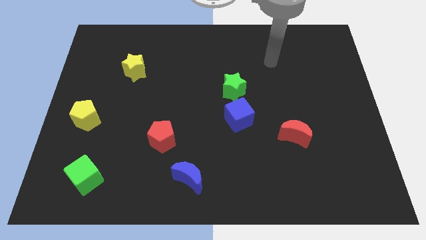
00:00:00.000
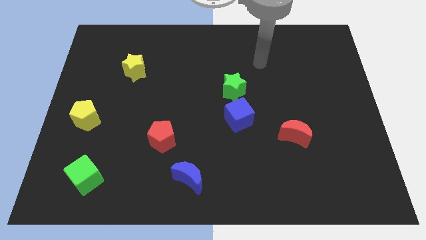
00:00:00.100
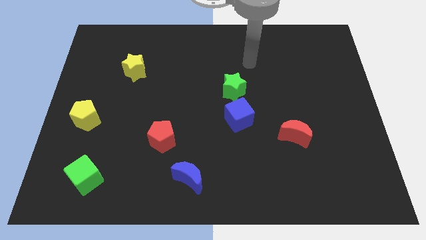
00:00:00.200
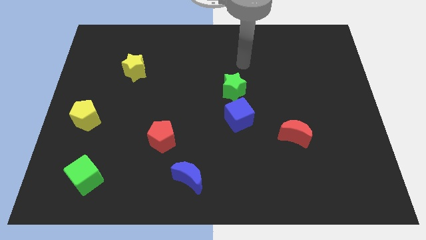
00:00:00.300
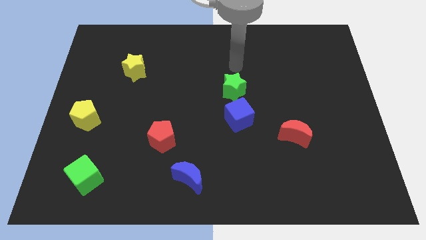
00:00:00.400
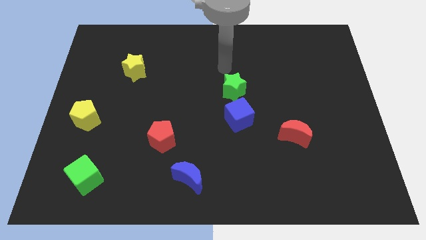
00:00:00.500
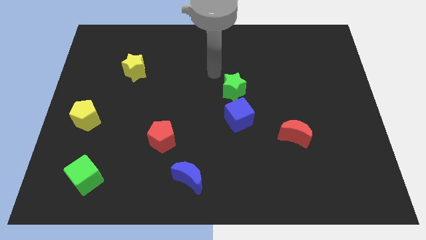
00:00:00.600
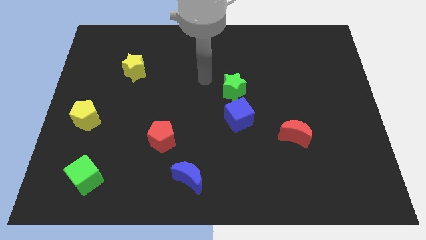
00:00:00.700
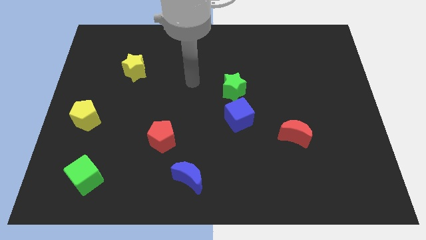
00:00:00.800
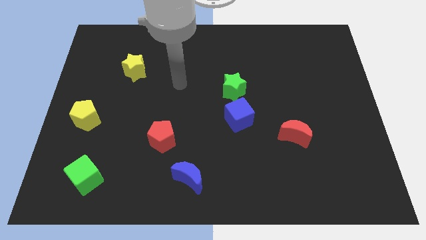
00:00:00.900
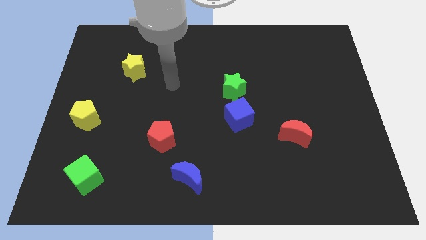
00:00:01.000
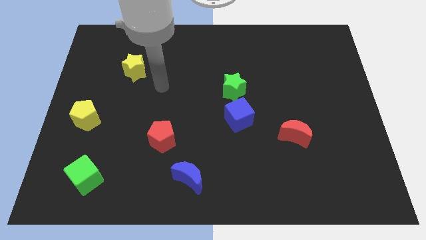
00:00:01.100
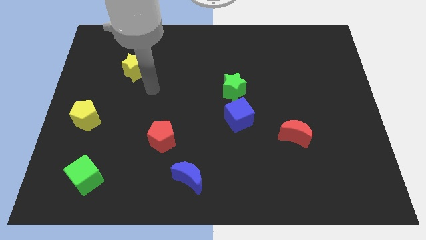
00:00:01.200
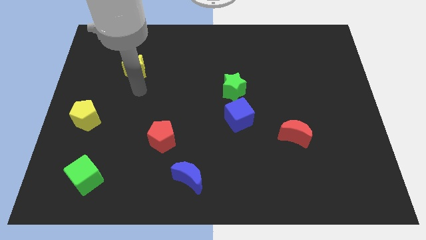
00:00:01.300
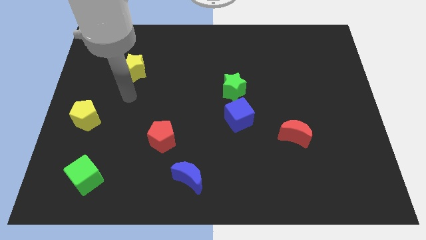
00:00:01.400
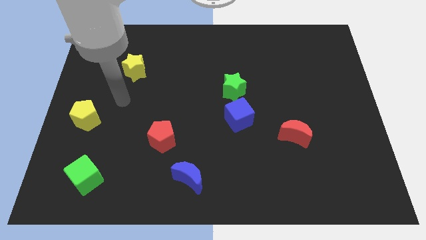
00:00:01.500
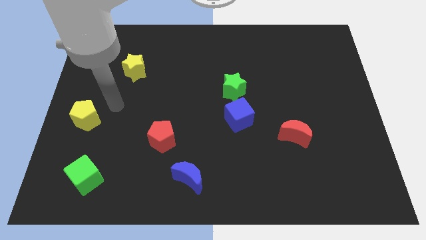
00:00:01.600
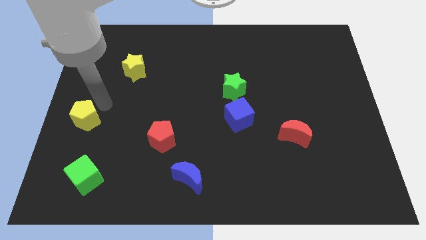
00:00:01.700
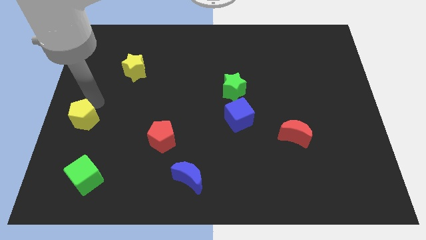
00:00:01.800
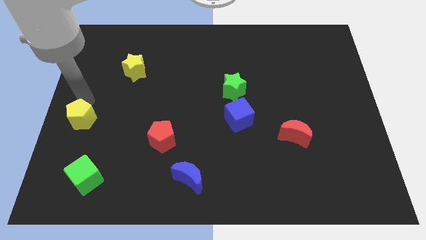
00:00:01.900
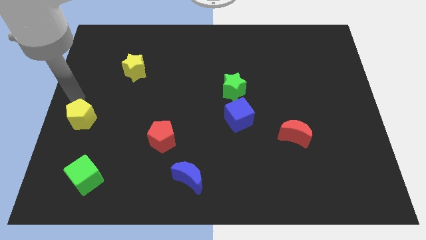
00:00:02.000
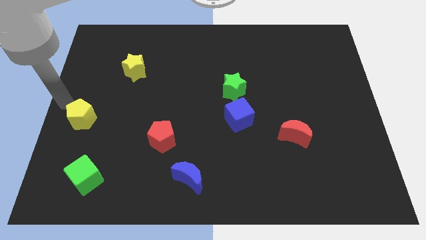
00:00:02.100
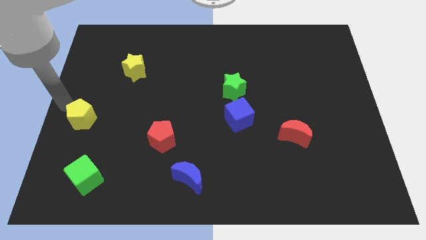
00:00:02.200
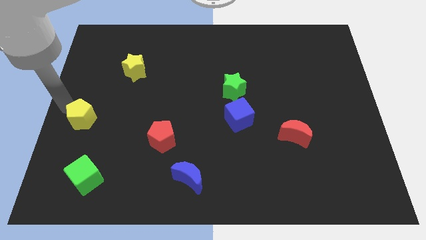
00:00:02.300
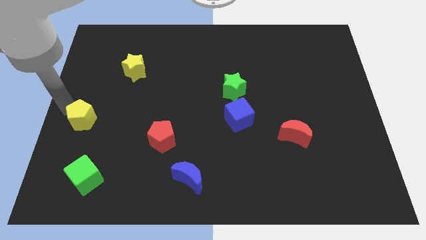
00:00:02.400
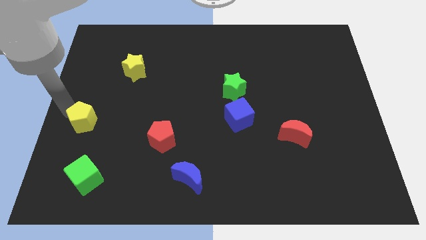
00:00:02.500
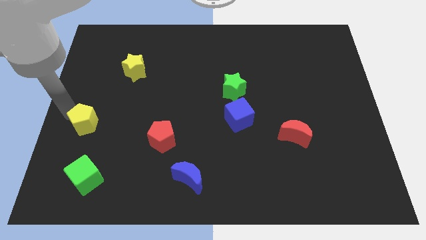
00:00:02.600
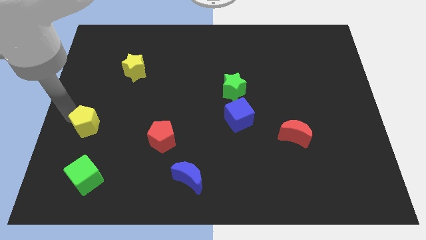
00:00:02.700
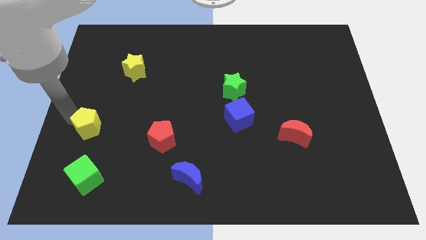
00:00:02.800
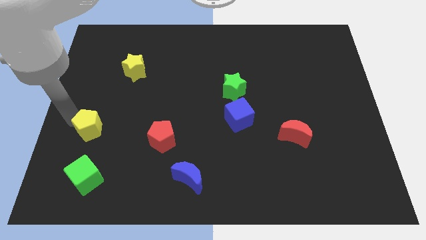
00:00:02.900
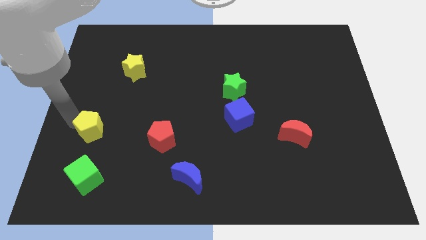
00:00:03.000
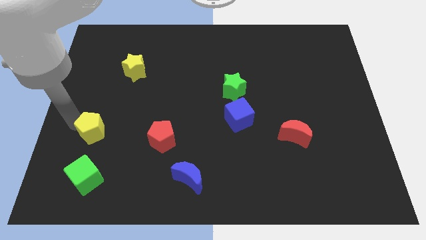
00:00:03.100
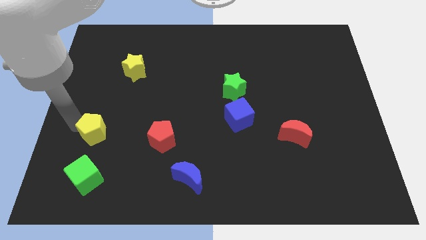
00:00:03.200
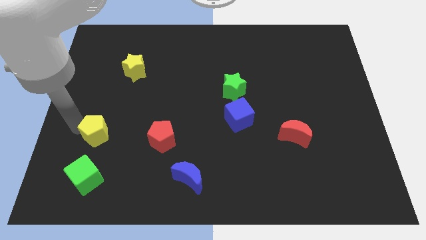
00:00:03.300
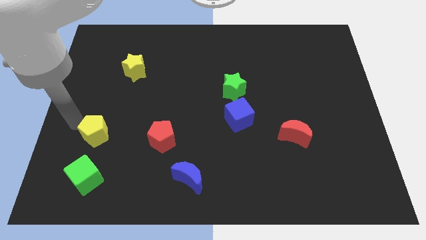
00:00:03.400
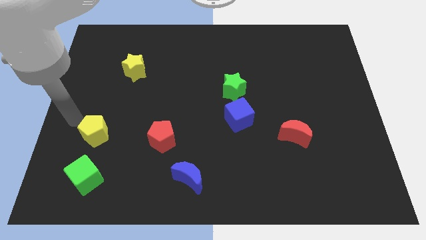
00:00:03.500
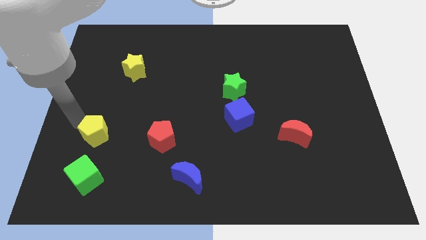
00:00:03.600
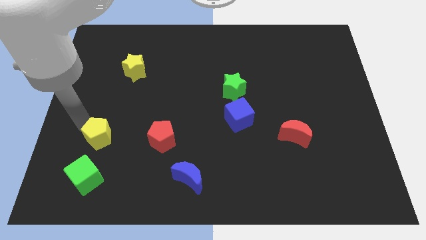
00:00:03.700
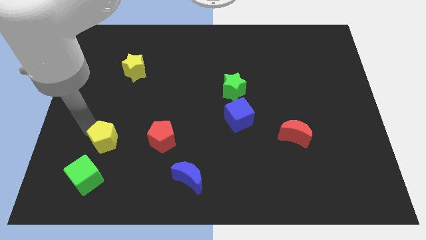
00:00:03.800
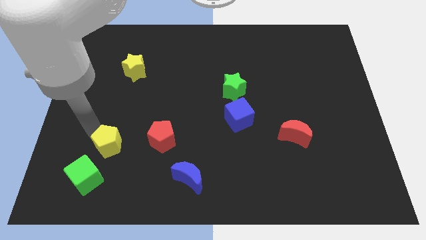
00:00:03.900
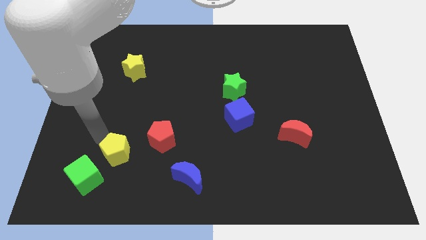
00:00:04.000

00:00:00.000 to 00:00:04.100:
move the yellow pentagon to the bottom left side of the red pentagon

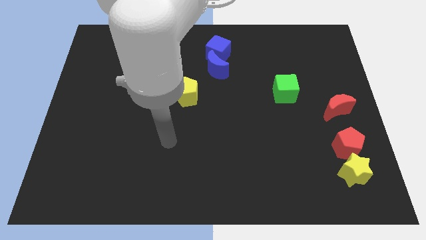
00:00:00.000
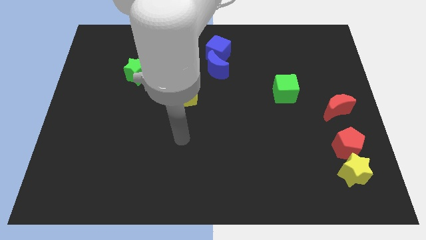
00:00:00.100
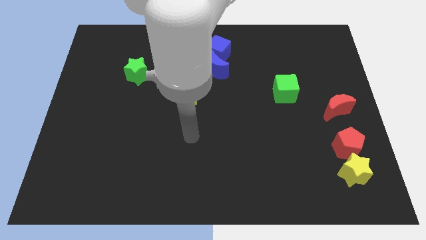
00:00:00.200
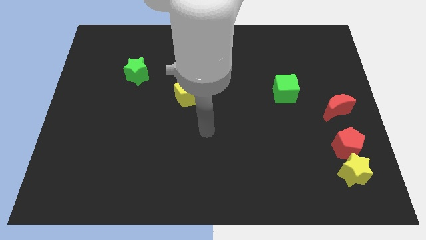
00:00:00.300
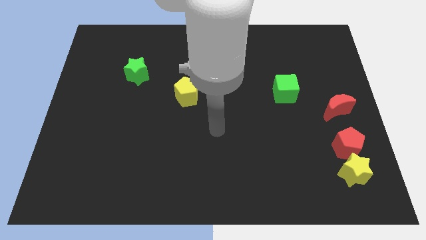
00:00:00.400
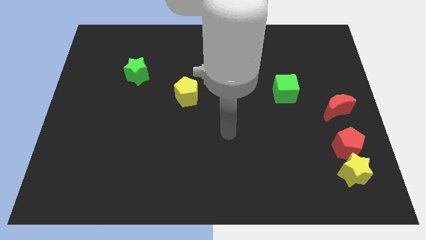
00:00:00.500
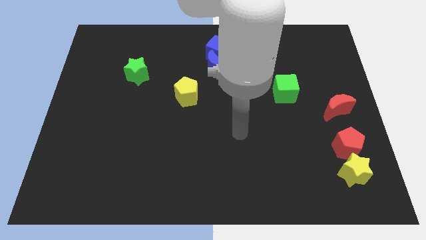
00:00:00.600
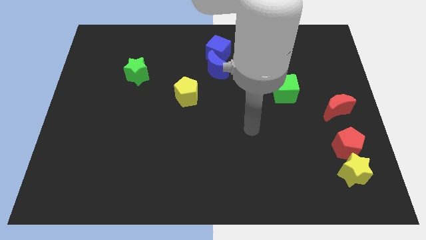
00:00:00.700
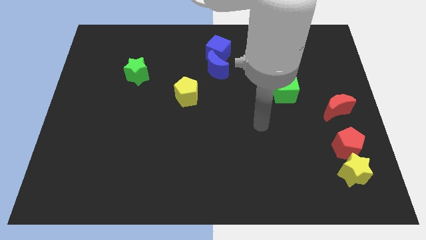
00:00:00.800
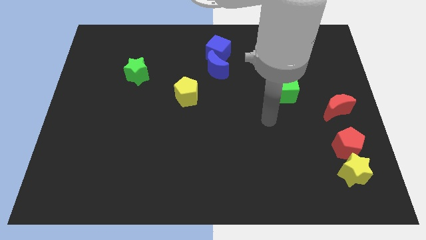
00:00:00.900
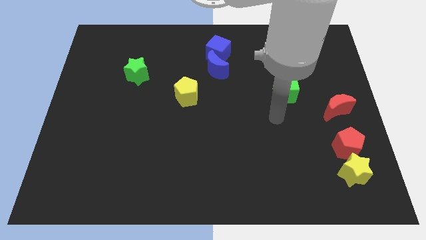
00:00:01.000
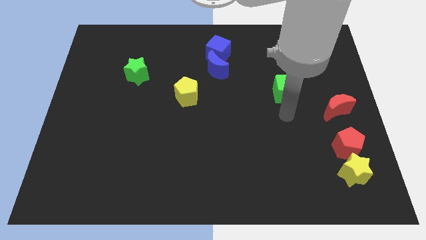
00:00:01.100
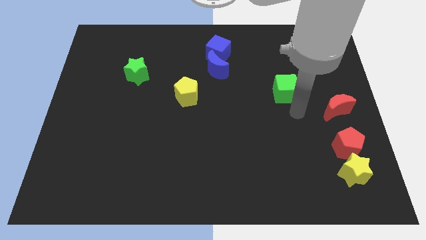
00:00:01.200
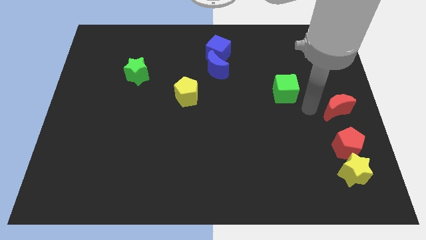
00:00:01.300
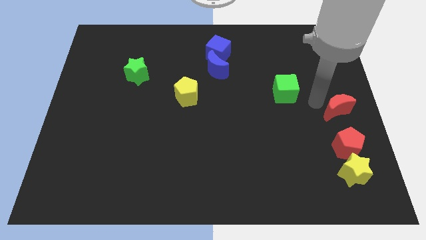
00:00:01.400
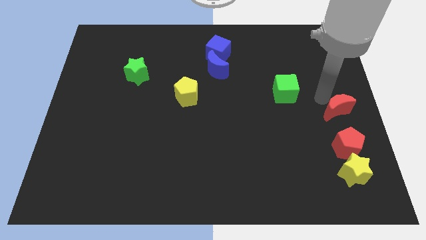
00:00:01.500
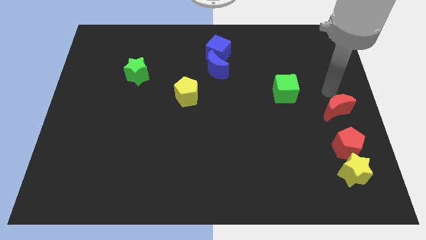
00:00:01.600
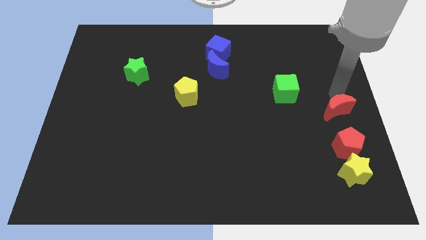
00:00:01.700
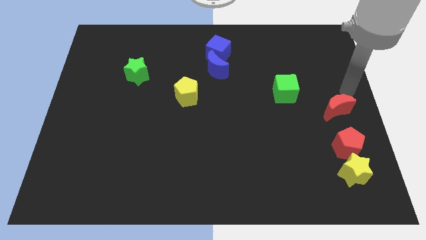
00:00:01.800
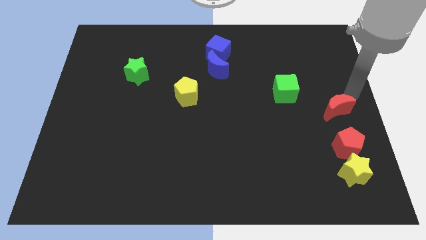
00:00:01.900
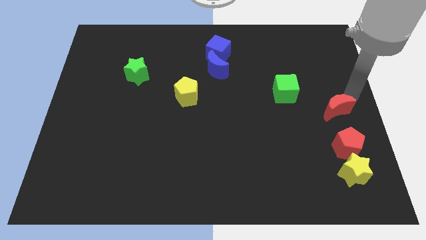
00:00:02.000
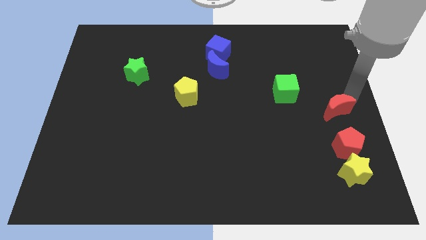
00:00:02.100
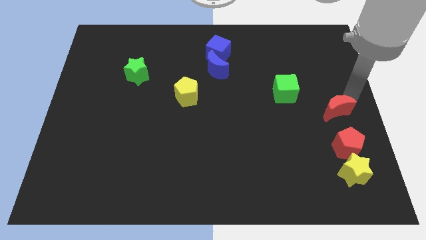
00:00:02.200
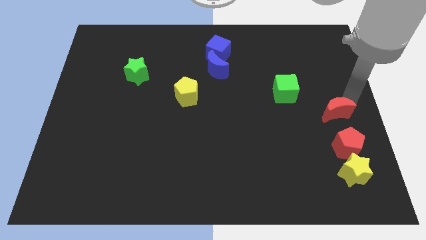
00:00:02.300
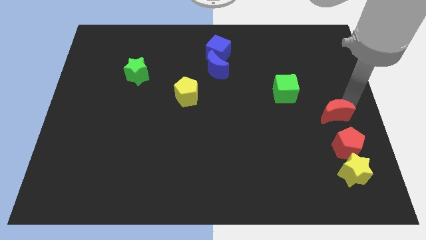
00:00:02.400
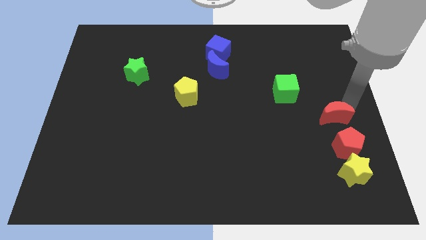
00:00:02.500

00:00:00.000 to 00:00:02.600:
slide the red moon to the top left of the red pentagon

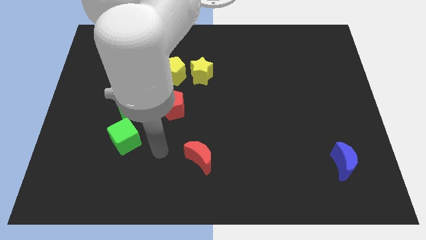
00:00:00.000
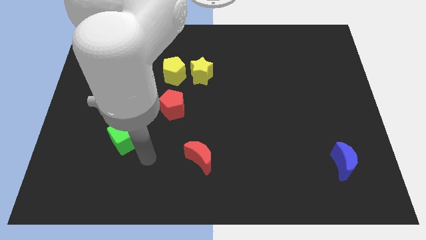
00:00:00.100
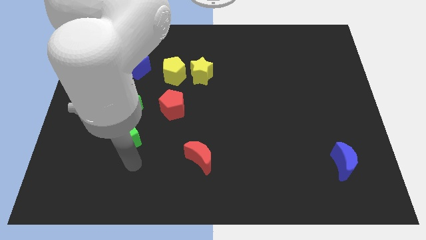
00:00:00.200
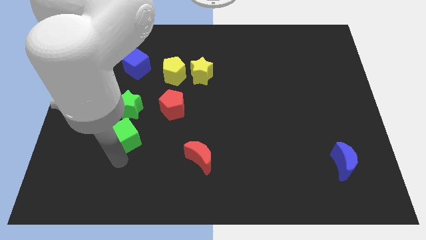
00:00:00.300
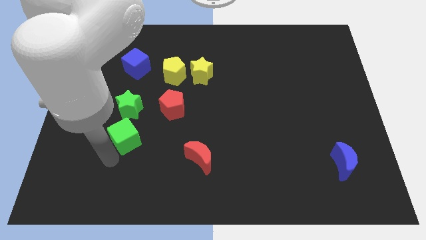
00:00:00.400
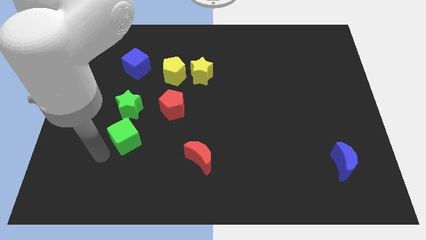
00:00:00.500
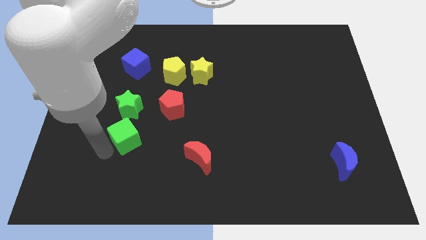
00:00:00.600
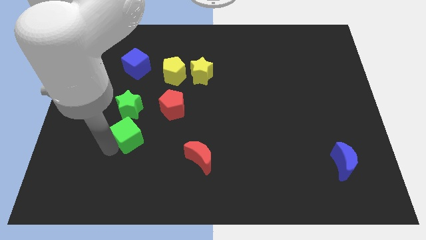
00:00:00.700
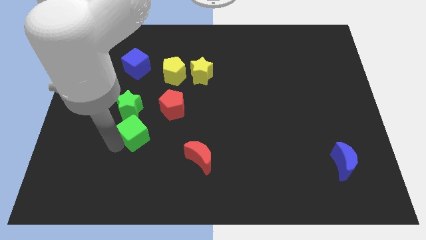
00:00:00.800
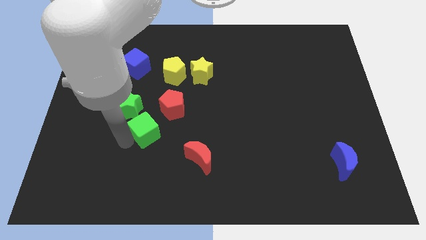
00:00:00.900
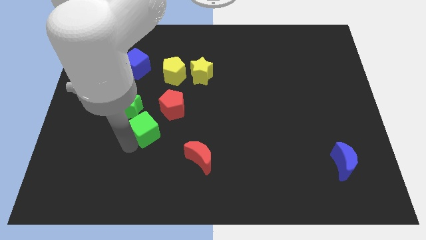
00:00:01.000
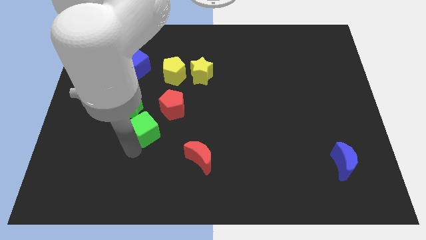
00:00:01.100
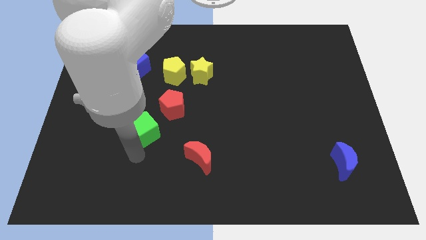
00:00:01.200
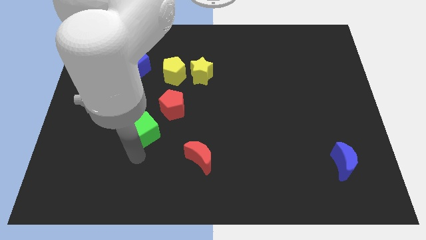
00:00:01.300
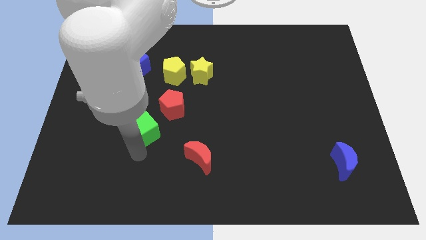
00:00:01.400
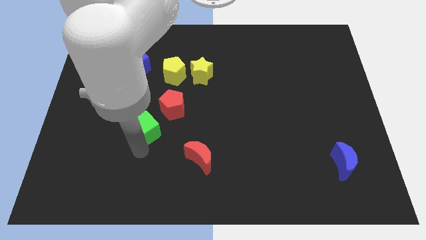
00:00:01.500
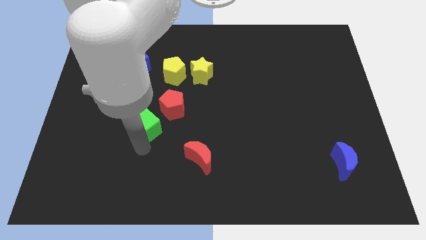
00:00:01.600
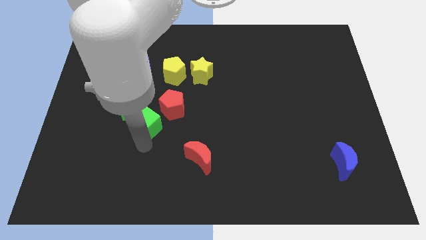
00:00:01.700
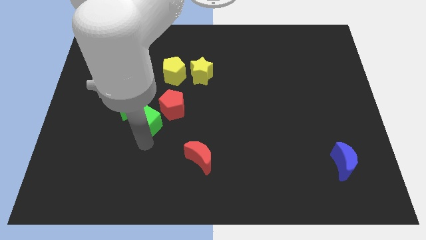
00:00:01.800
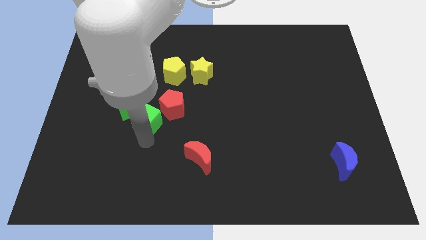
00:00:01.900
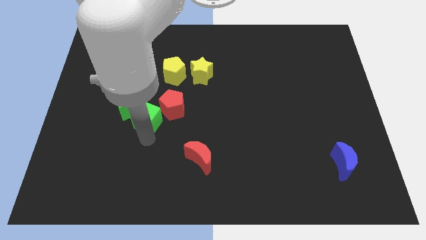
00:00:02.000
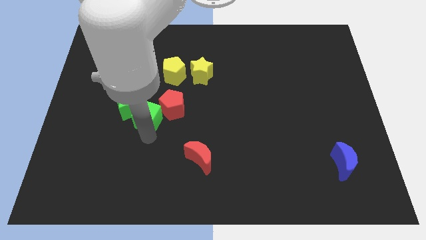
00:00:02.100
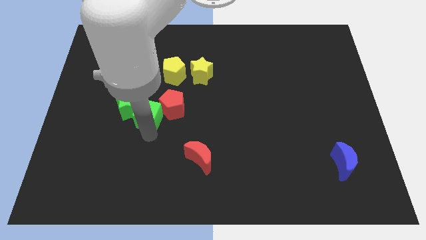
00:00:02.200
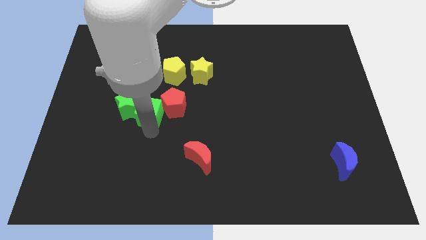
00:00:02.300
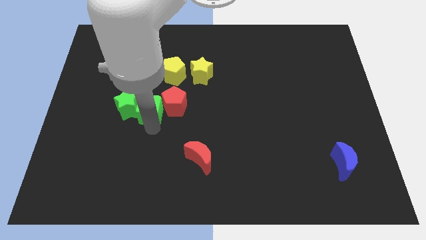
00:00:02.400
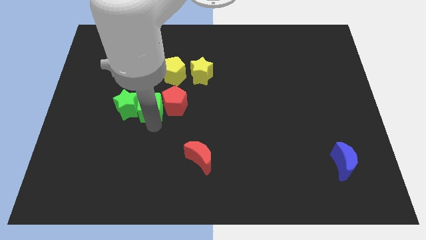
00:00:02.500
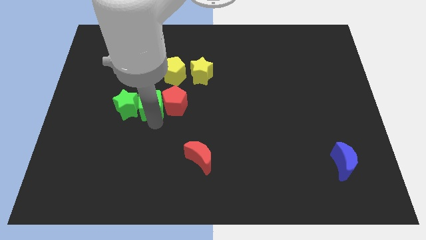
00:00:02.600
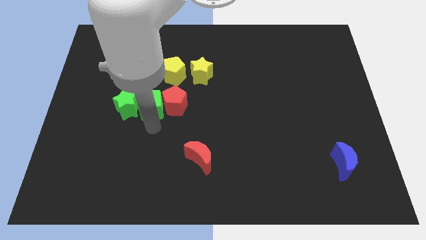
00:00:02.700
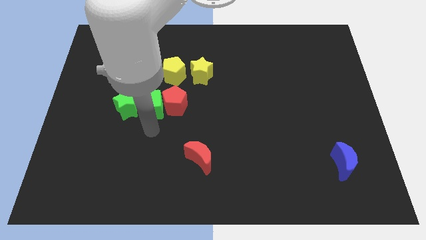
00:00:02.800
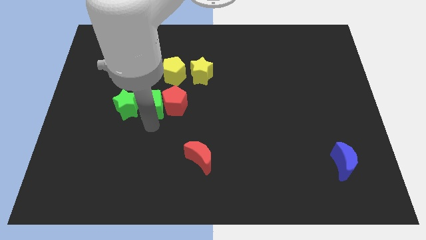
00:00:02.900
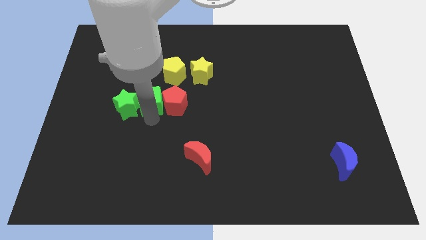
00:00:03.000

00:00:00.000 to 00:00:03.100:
slide the green cube to the bottom left side of the yellow pentagon
